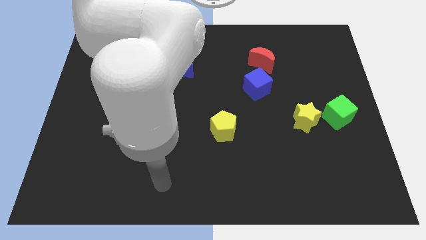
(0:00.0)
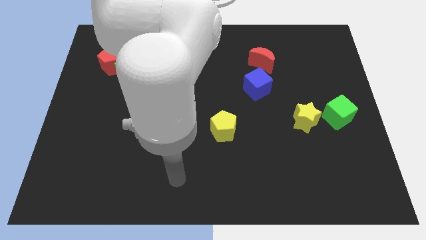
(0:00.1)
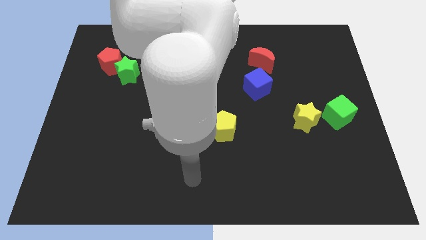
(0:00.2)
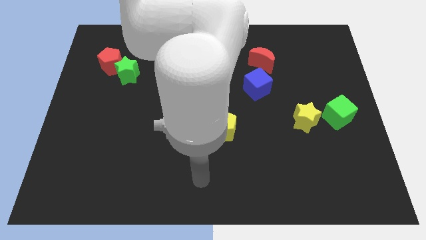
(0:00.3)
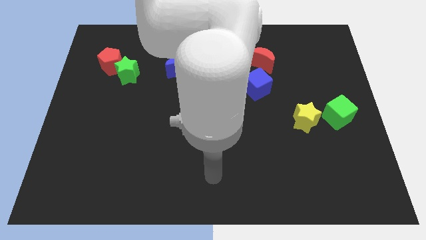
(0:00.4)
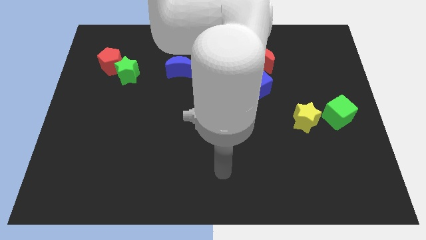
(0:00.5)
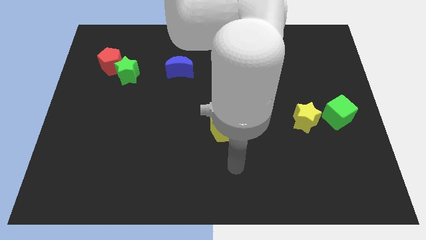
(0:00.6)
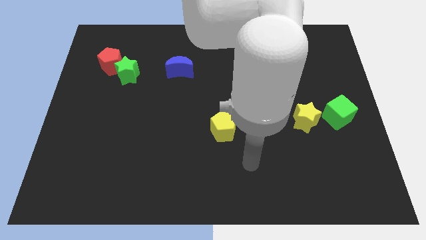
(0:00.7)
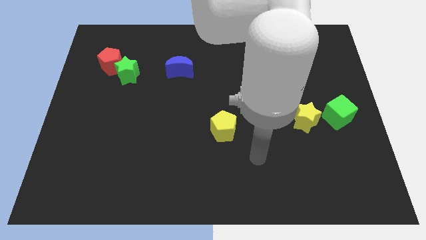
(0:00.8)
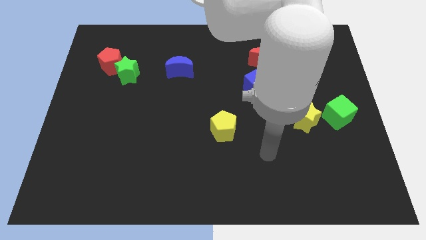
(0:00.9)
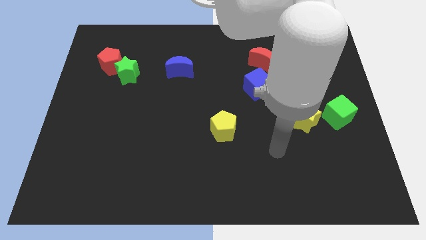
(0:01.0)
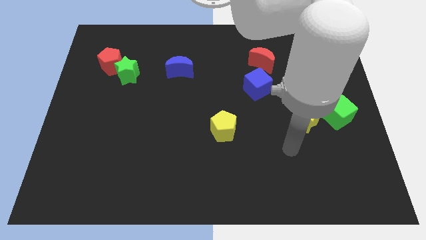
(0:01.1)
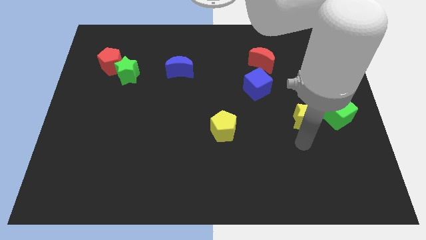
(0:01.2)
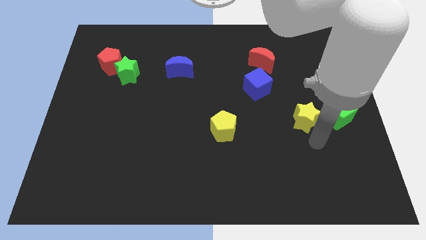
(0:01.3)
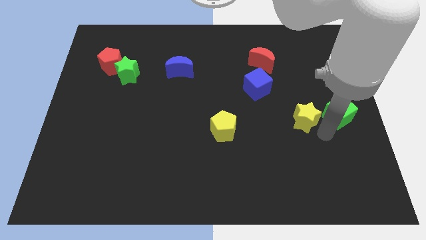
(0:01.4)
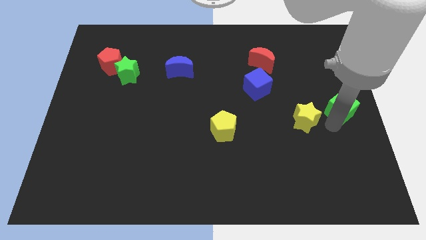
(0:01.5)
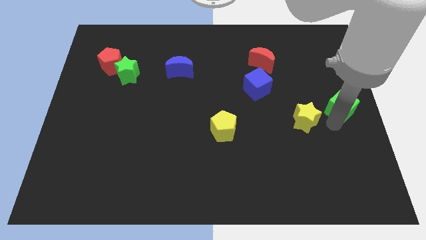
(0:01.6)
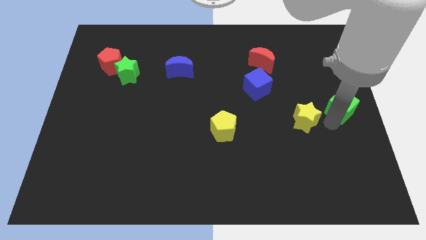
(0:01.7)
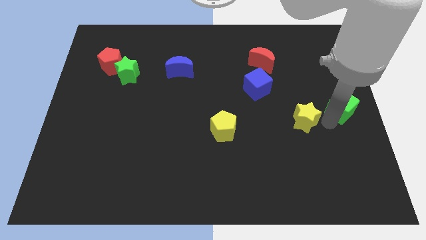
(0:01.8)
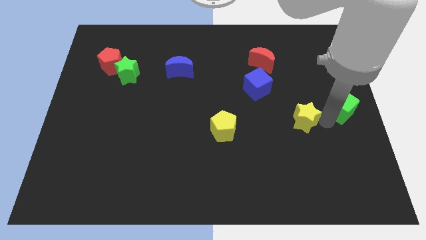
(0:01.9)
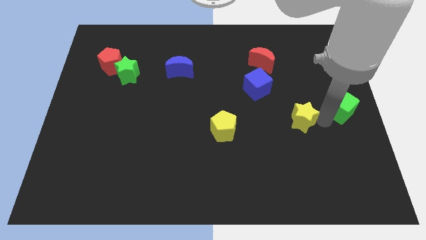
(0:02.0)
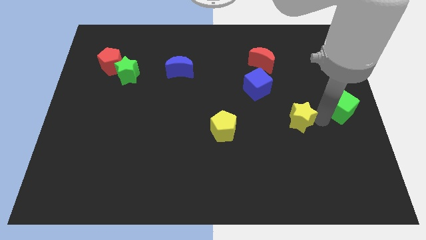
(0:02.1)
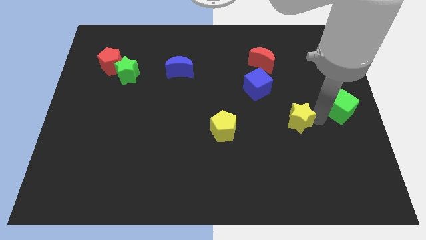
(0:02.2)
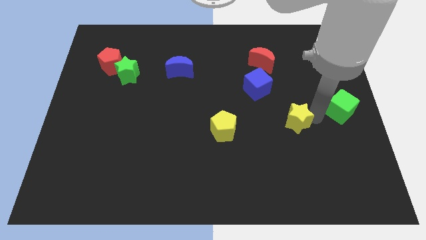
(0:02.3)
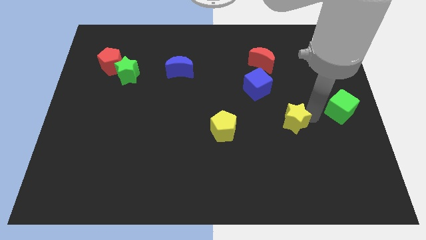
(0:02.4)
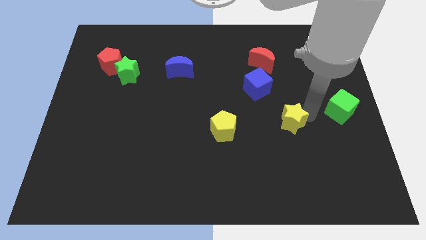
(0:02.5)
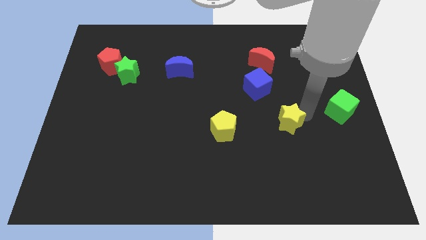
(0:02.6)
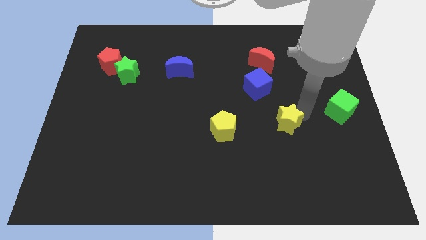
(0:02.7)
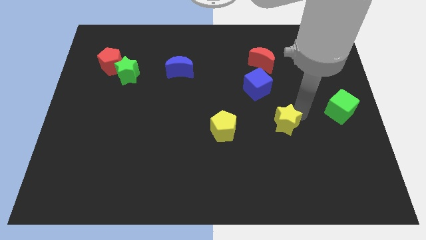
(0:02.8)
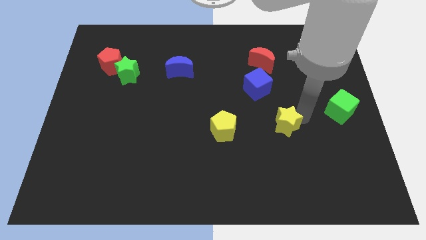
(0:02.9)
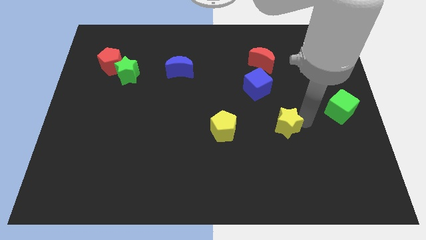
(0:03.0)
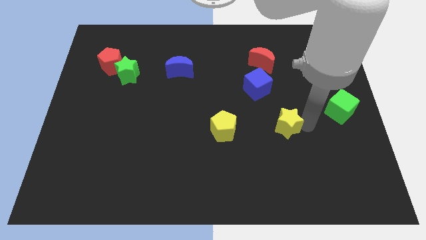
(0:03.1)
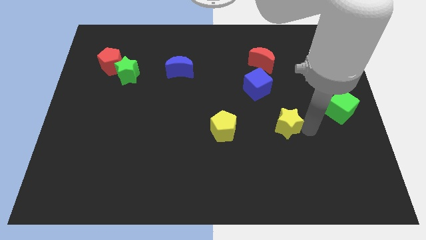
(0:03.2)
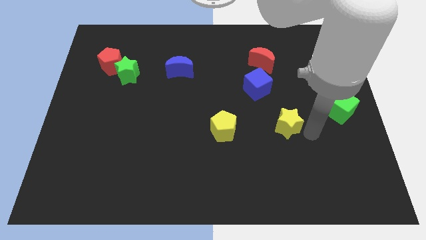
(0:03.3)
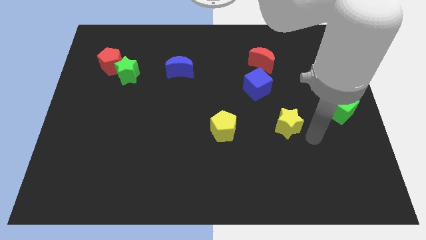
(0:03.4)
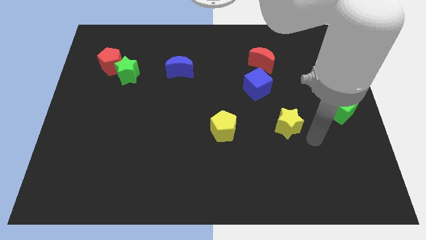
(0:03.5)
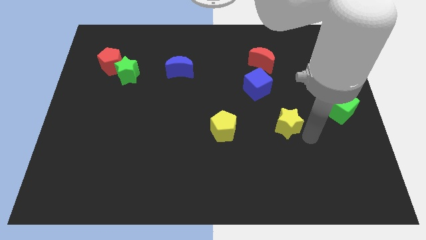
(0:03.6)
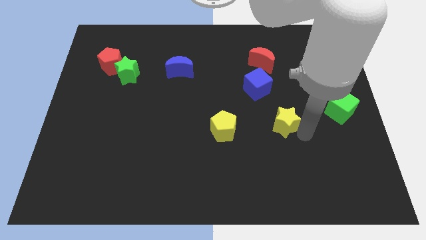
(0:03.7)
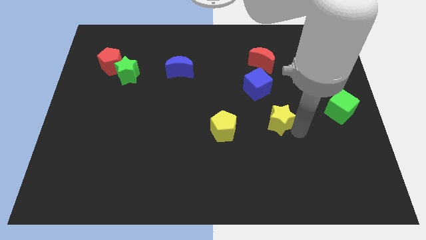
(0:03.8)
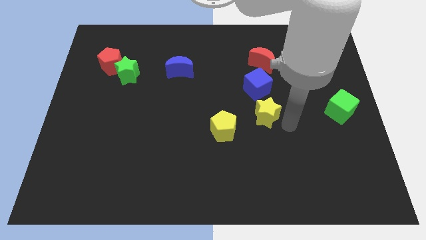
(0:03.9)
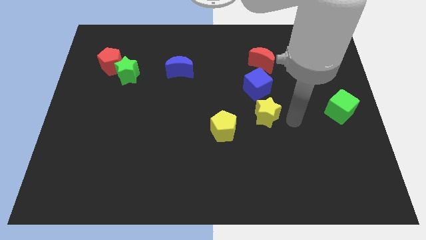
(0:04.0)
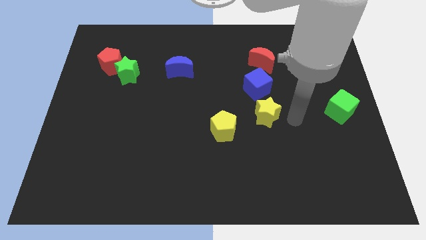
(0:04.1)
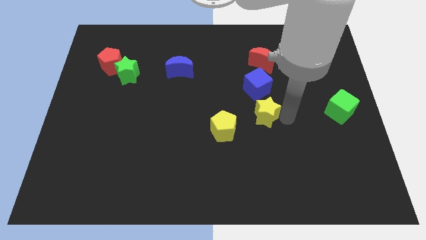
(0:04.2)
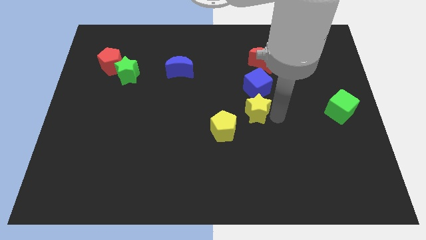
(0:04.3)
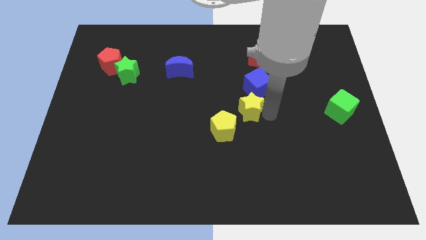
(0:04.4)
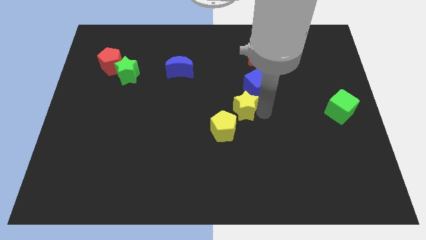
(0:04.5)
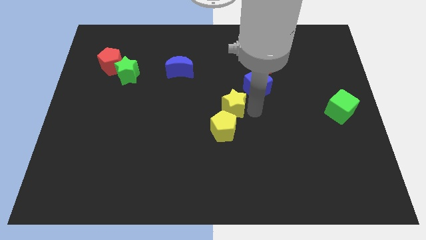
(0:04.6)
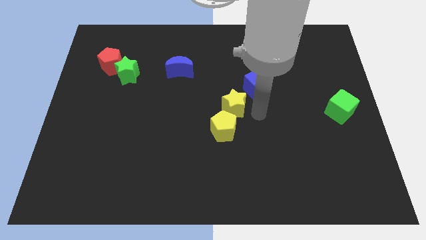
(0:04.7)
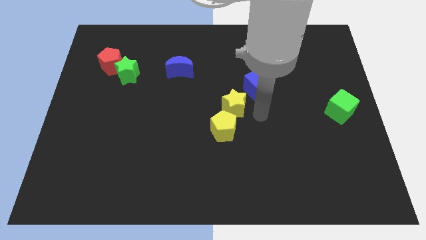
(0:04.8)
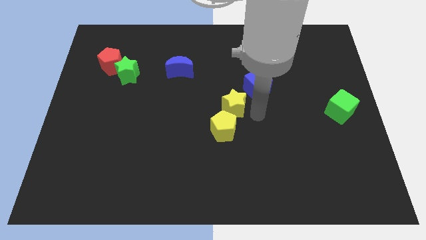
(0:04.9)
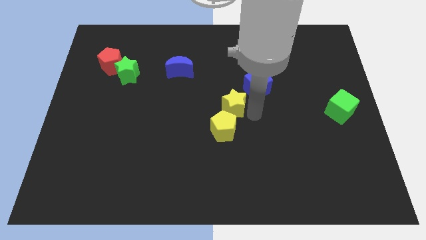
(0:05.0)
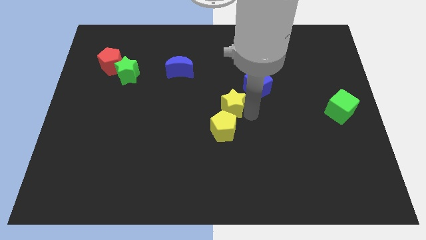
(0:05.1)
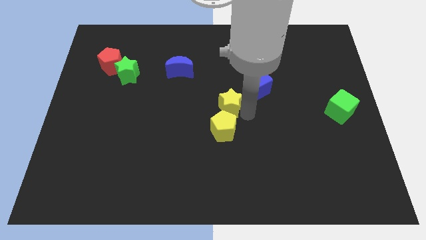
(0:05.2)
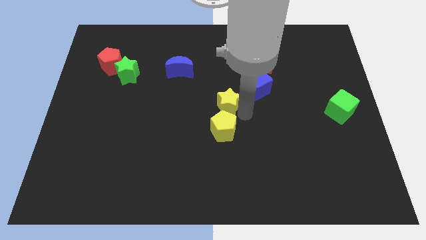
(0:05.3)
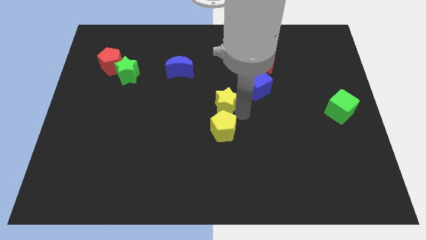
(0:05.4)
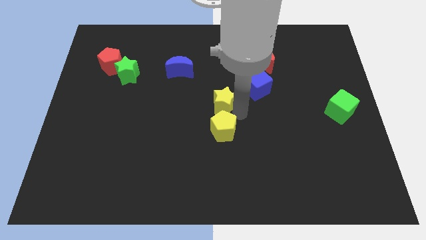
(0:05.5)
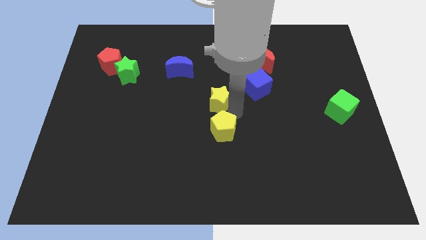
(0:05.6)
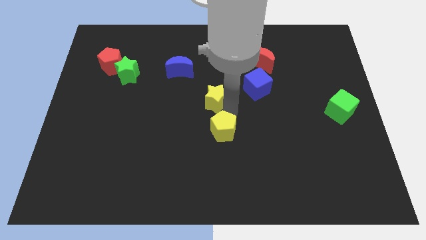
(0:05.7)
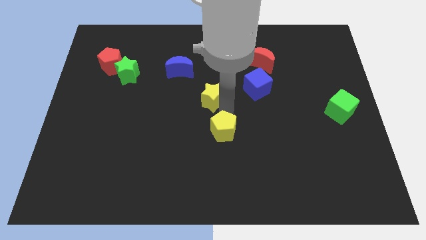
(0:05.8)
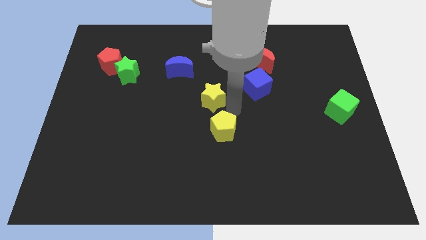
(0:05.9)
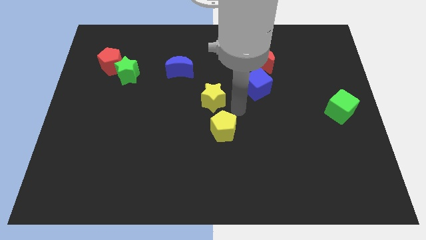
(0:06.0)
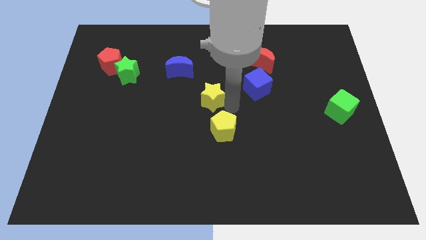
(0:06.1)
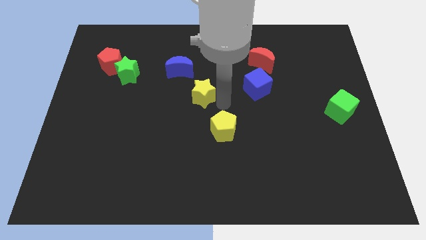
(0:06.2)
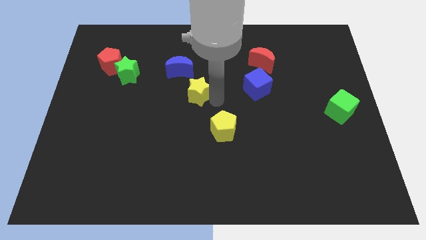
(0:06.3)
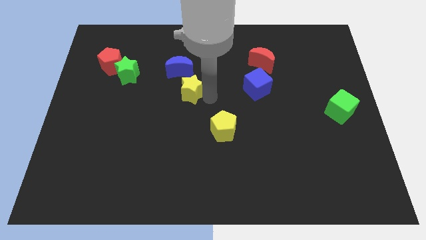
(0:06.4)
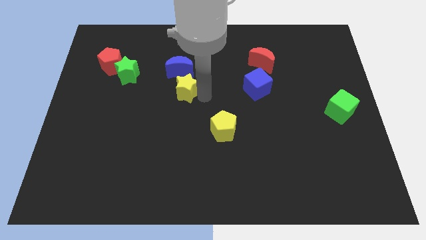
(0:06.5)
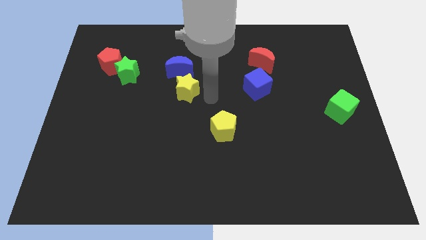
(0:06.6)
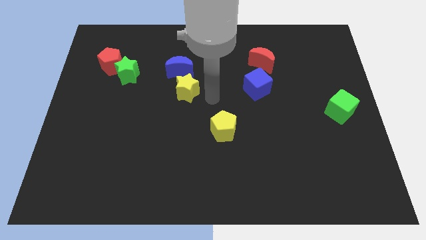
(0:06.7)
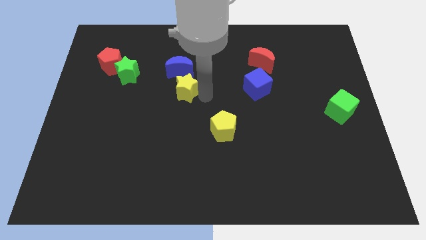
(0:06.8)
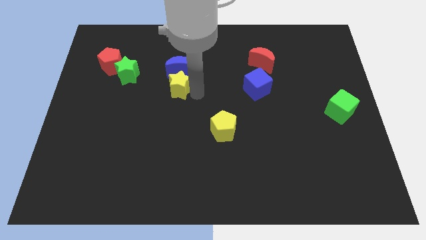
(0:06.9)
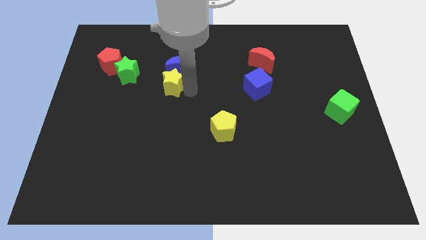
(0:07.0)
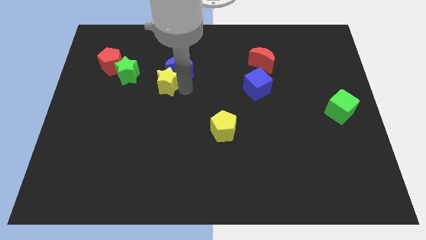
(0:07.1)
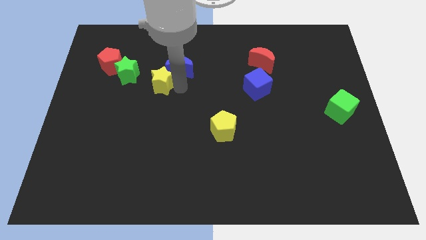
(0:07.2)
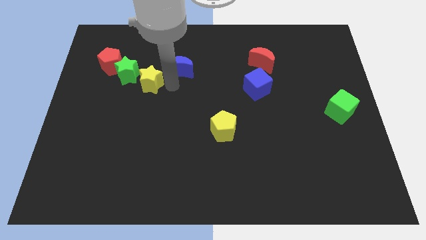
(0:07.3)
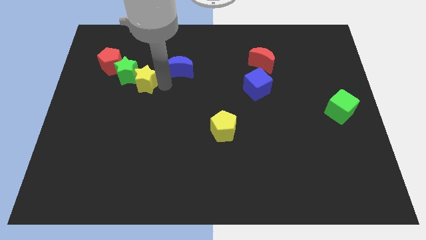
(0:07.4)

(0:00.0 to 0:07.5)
slide the yellow star towards the green star
